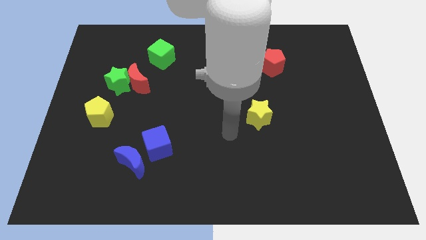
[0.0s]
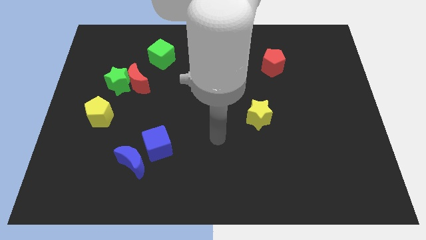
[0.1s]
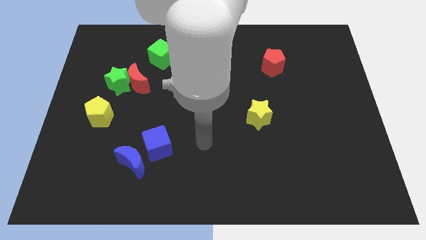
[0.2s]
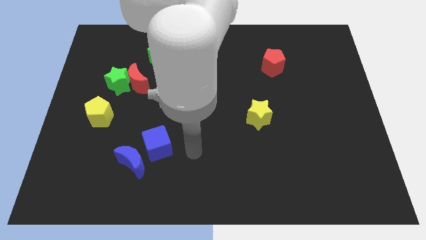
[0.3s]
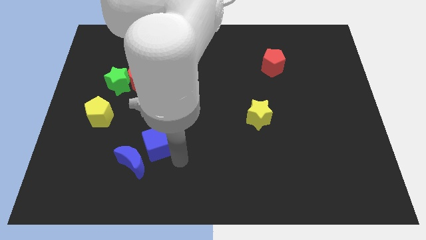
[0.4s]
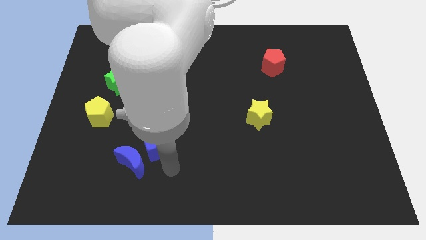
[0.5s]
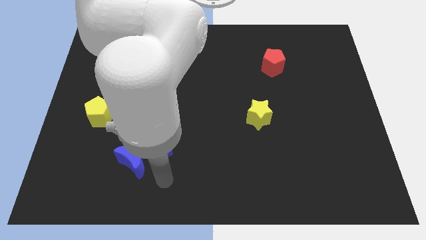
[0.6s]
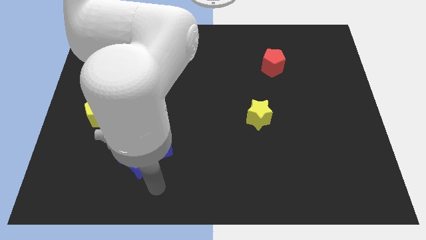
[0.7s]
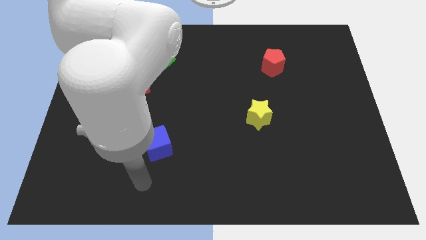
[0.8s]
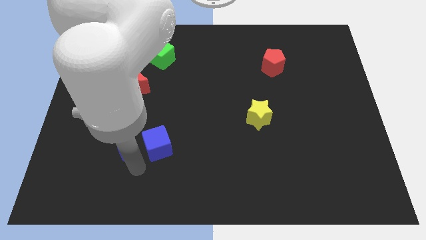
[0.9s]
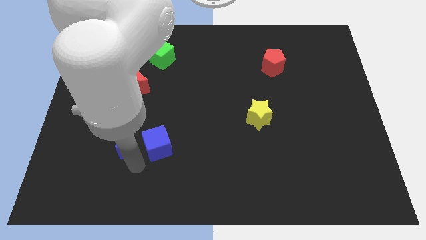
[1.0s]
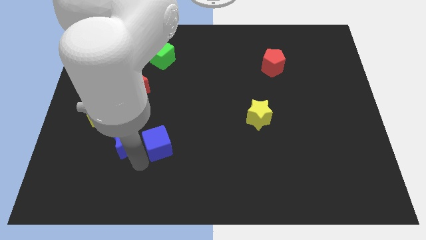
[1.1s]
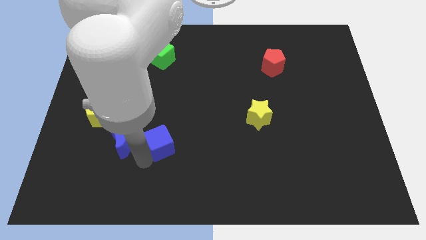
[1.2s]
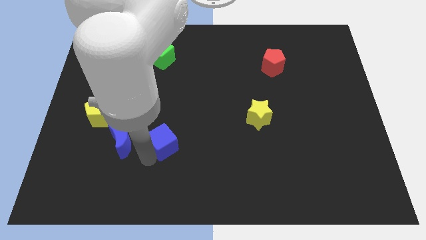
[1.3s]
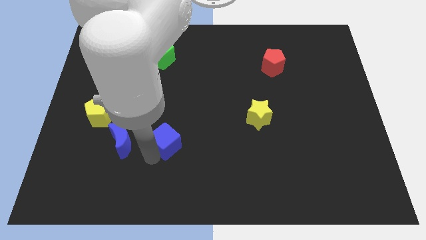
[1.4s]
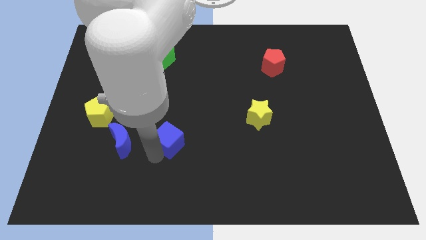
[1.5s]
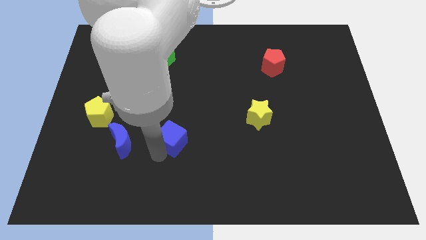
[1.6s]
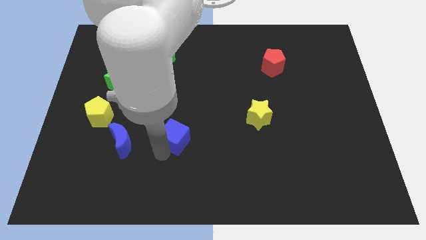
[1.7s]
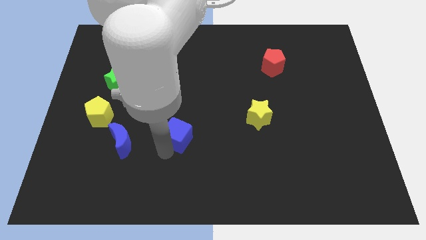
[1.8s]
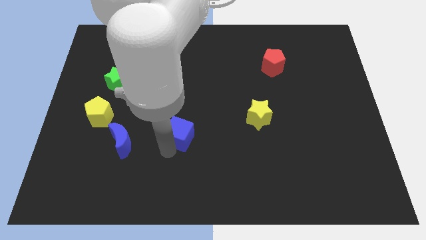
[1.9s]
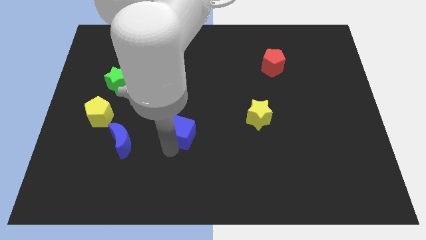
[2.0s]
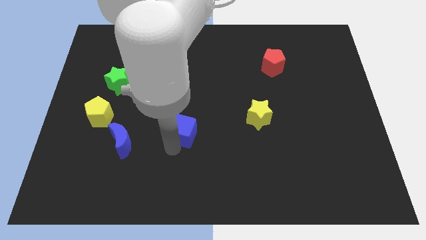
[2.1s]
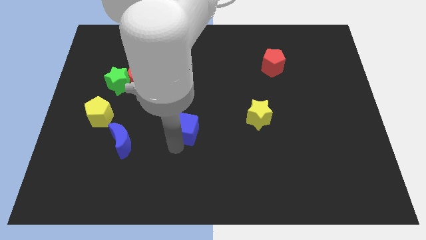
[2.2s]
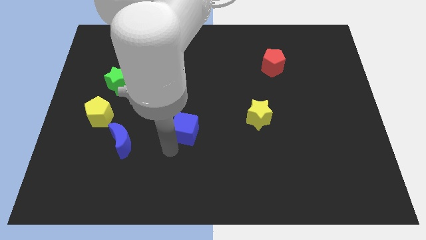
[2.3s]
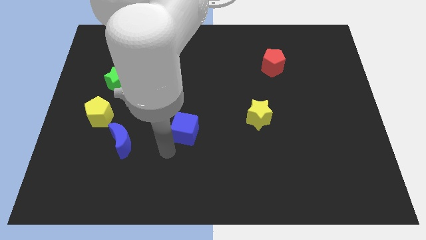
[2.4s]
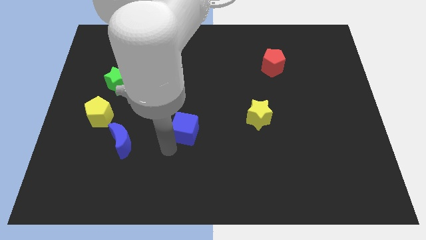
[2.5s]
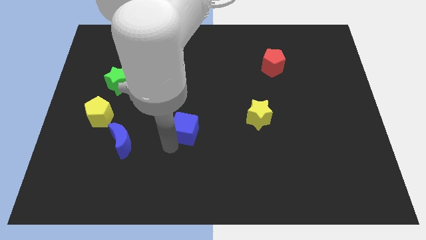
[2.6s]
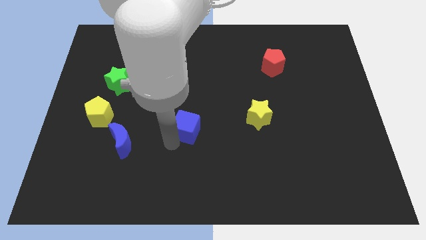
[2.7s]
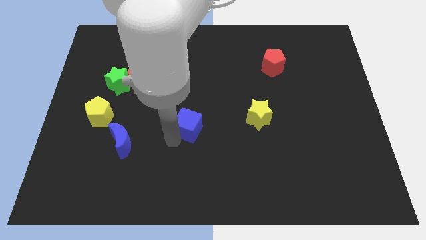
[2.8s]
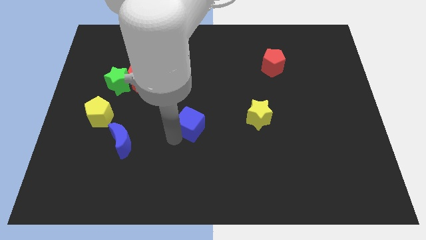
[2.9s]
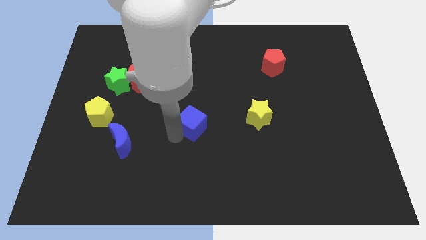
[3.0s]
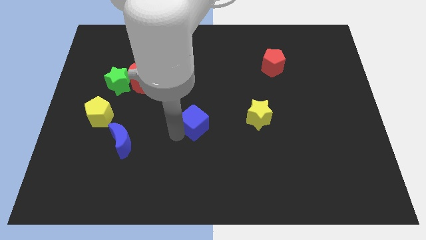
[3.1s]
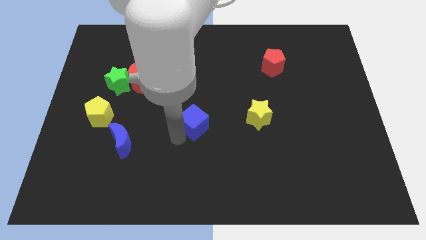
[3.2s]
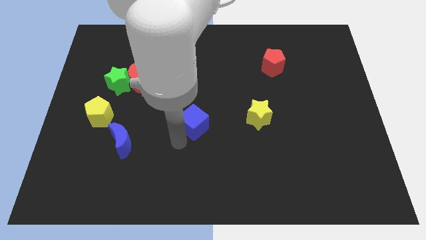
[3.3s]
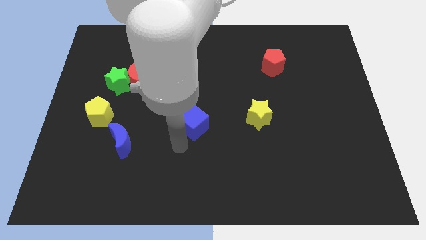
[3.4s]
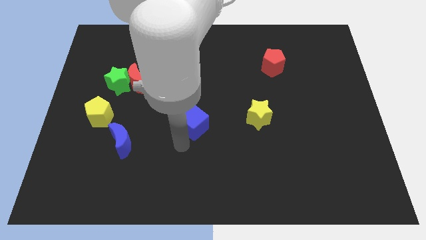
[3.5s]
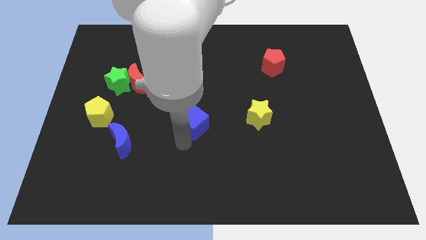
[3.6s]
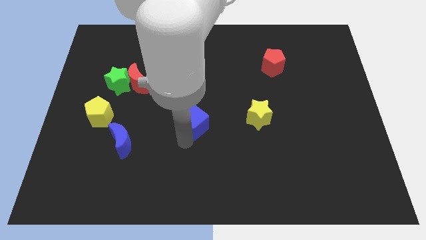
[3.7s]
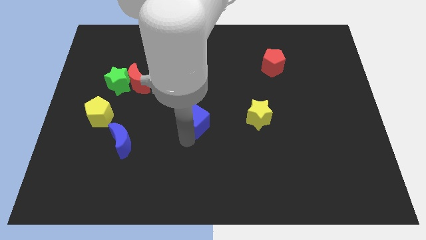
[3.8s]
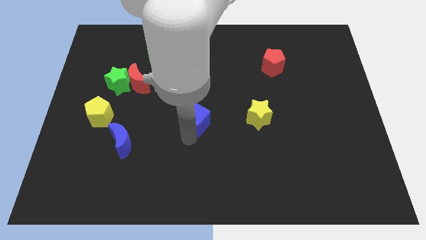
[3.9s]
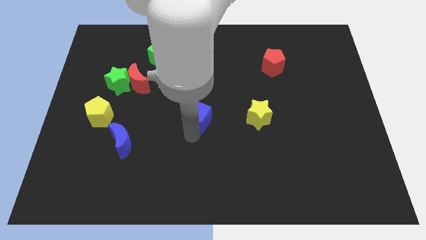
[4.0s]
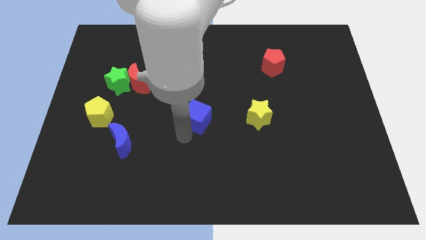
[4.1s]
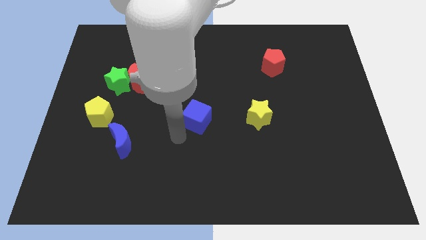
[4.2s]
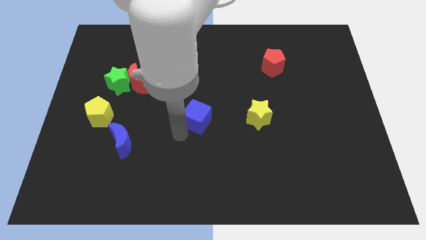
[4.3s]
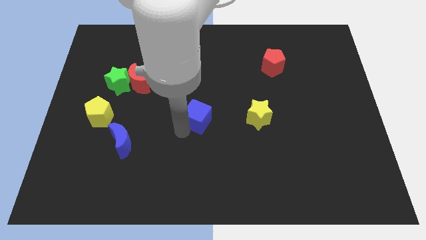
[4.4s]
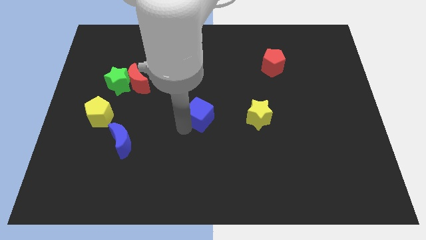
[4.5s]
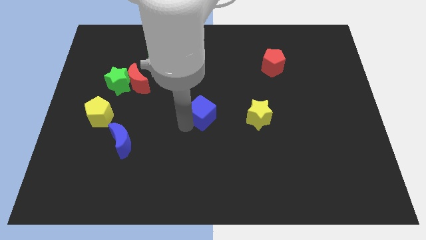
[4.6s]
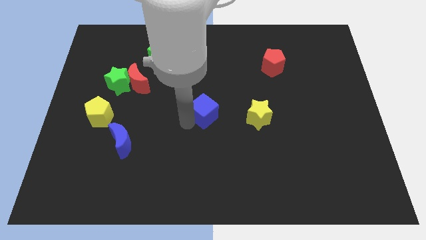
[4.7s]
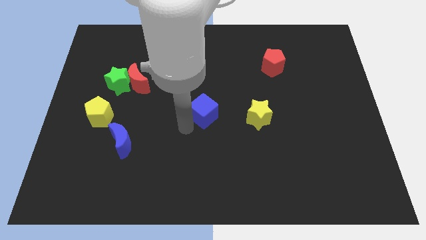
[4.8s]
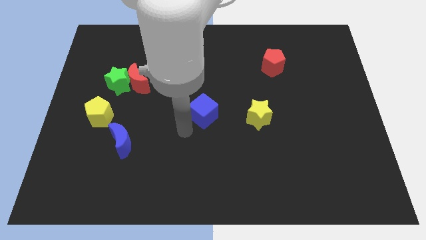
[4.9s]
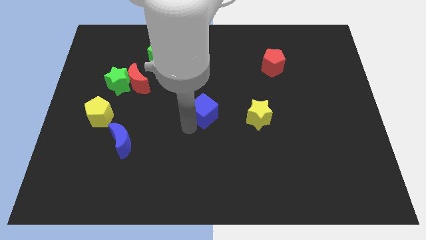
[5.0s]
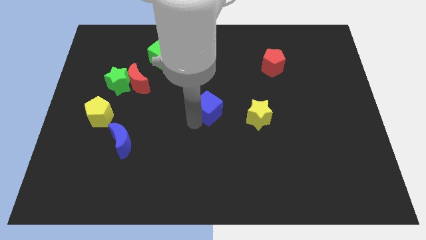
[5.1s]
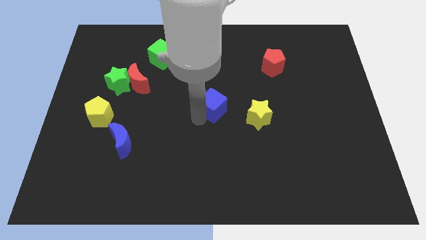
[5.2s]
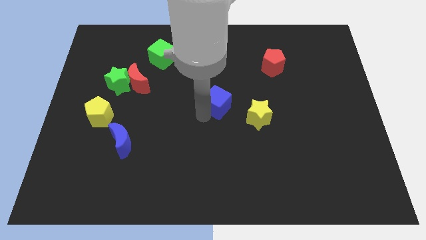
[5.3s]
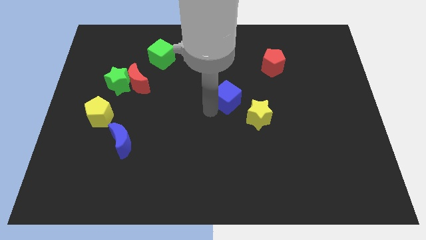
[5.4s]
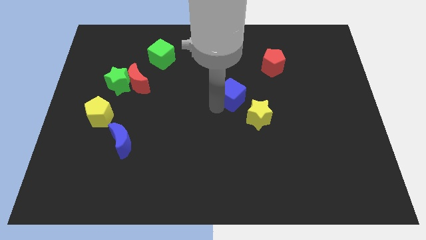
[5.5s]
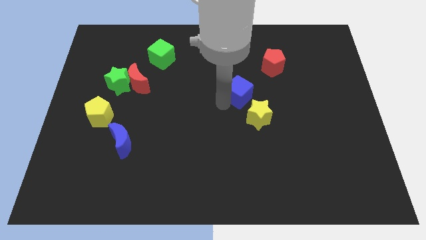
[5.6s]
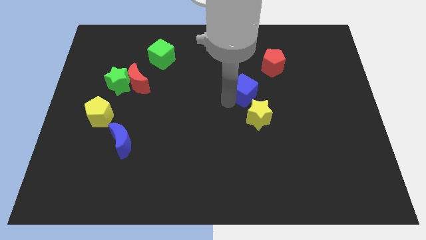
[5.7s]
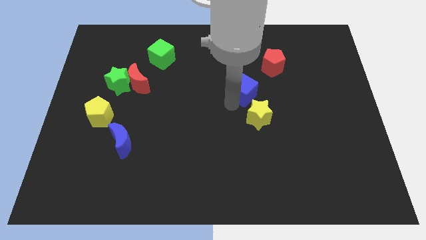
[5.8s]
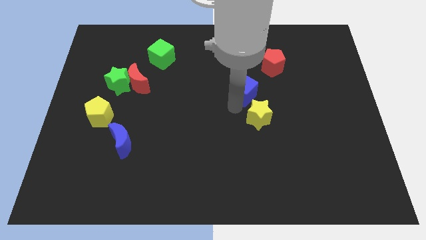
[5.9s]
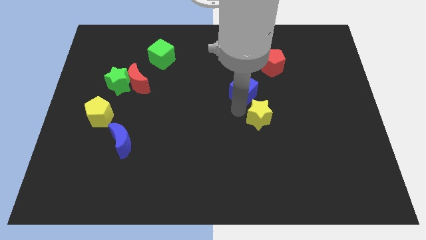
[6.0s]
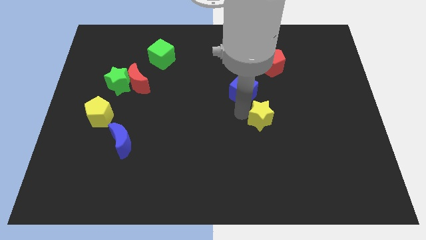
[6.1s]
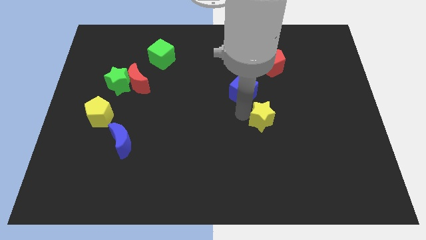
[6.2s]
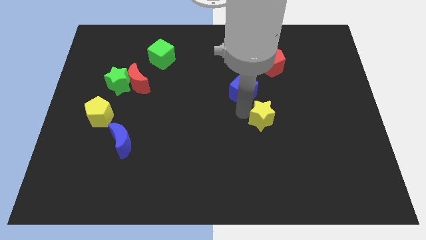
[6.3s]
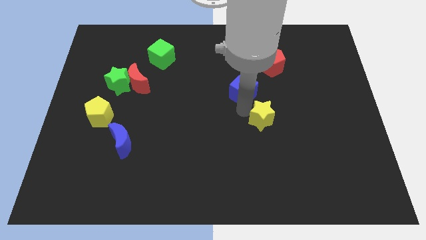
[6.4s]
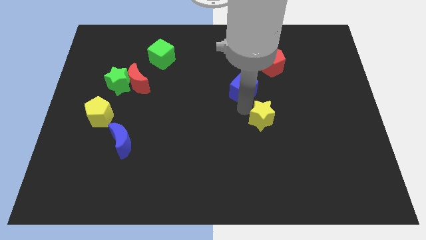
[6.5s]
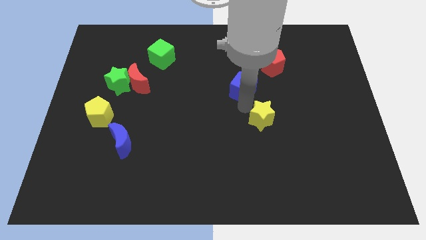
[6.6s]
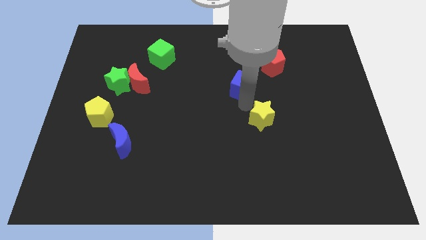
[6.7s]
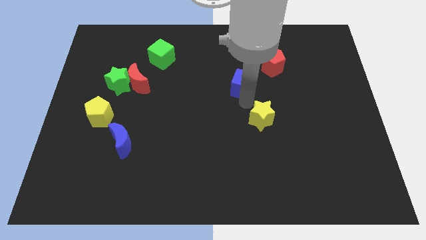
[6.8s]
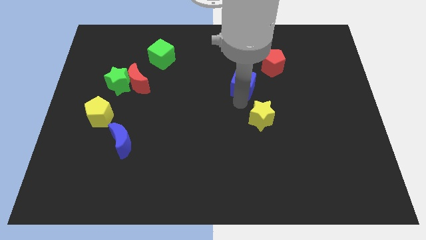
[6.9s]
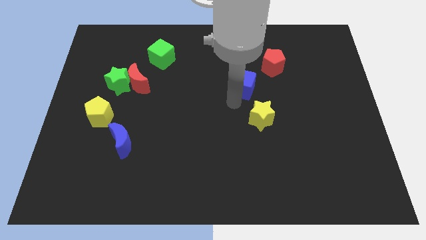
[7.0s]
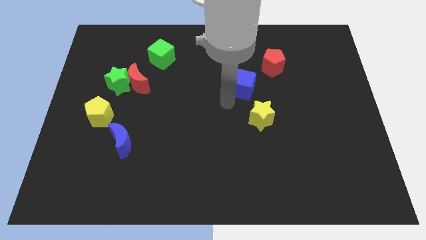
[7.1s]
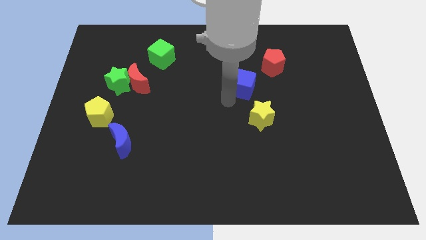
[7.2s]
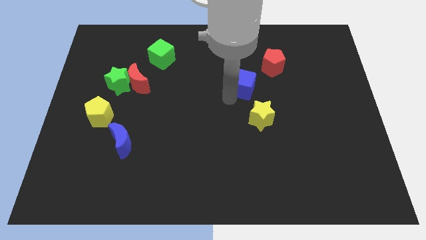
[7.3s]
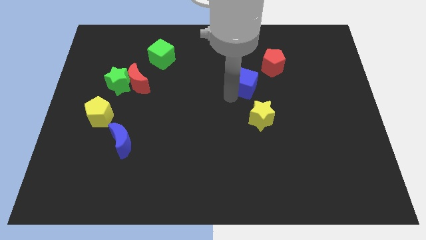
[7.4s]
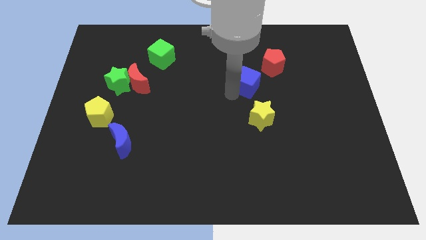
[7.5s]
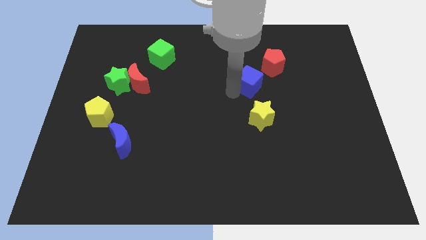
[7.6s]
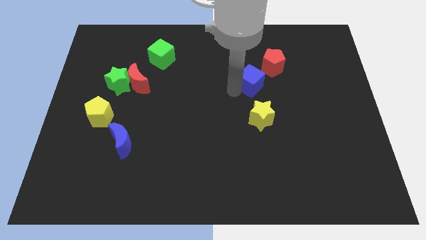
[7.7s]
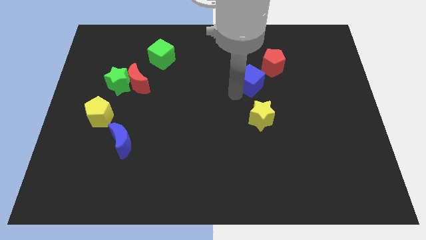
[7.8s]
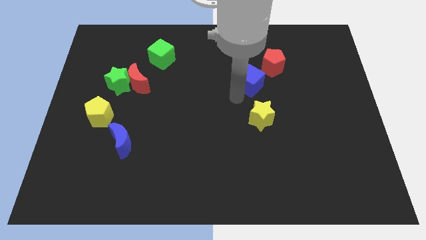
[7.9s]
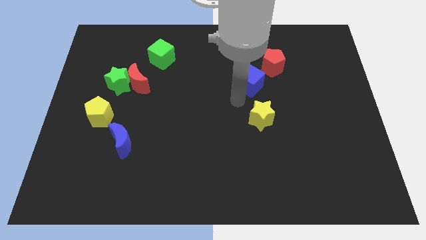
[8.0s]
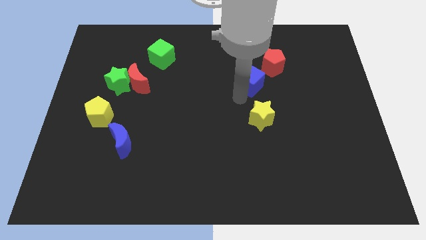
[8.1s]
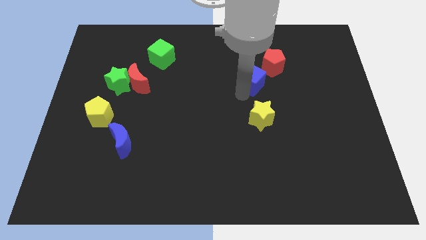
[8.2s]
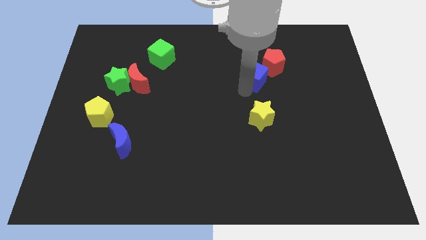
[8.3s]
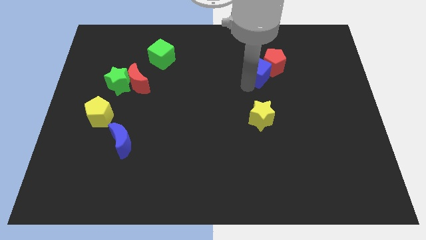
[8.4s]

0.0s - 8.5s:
push the blue cube next to the red pentagon
